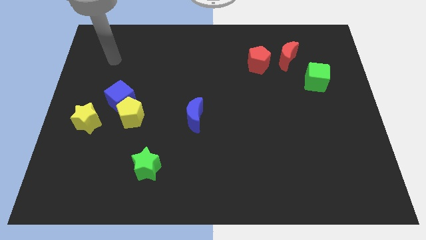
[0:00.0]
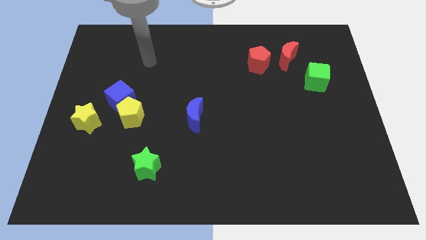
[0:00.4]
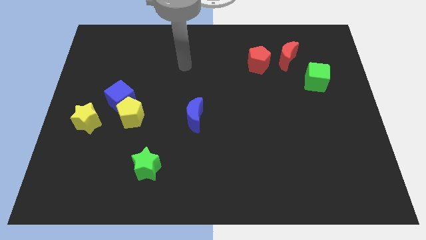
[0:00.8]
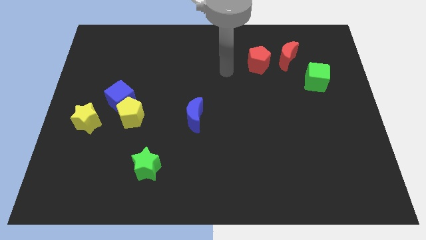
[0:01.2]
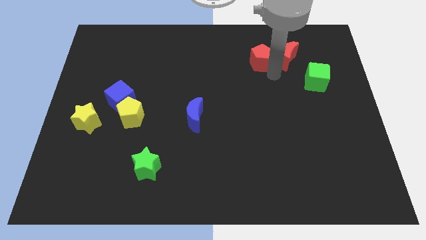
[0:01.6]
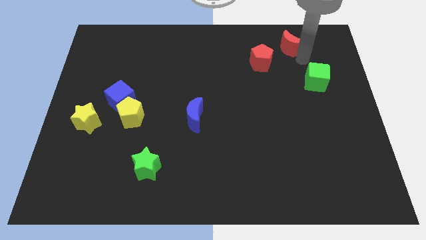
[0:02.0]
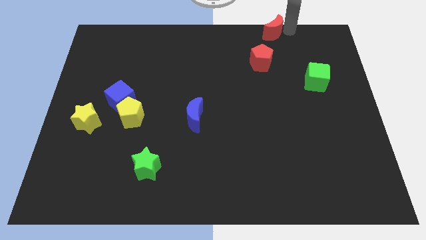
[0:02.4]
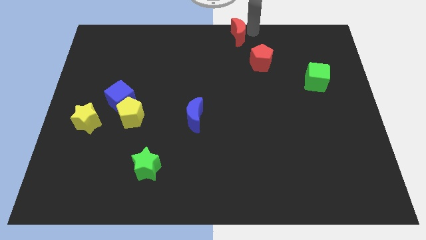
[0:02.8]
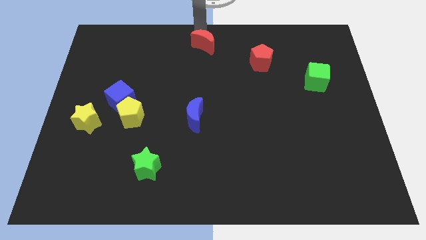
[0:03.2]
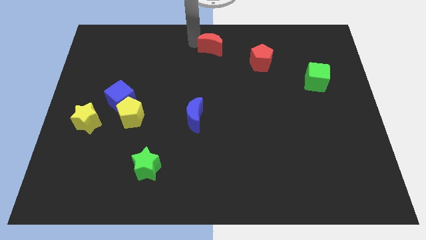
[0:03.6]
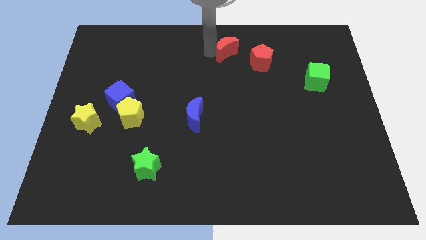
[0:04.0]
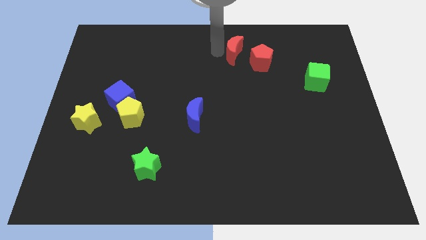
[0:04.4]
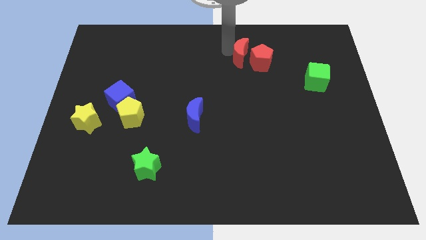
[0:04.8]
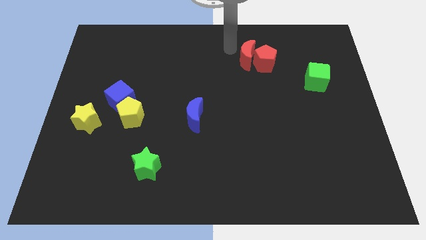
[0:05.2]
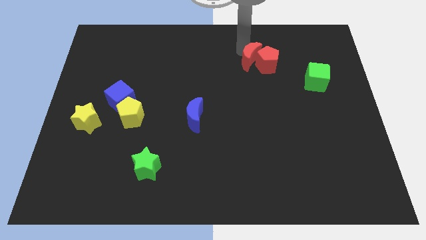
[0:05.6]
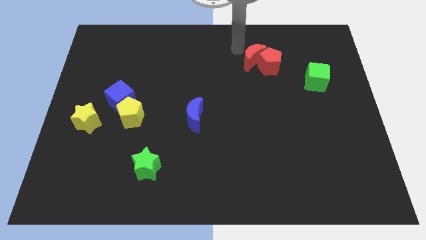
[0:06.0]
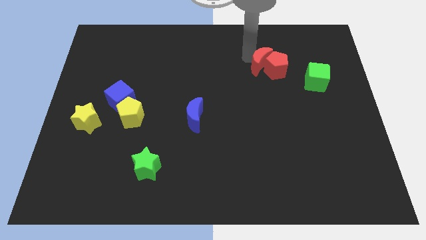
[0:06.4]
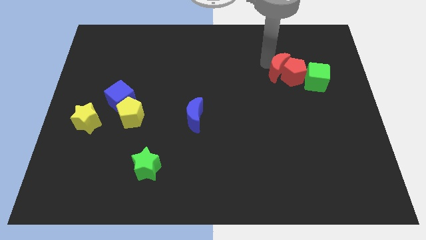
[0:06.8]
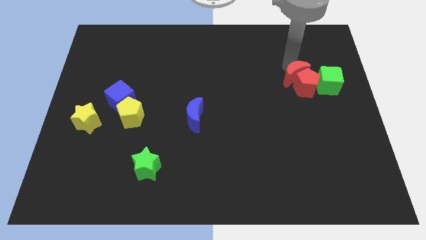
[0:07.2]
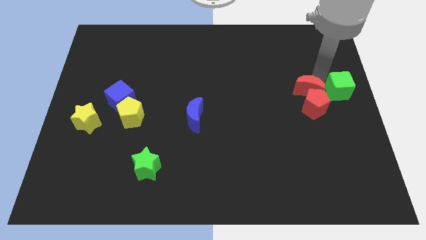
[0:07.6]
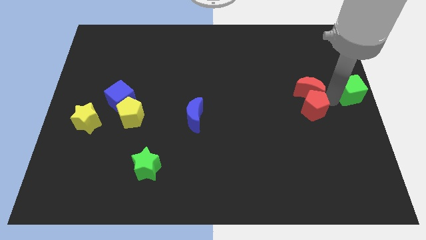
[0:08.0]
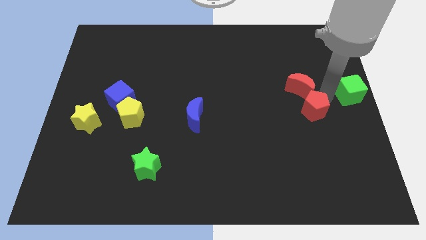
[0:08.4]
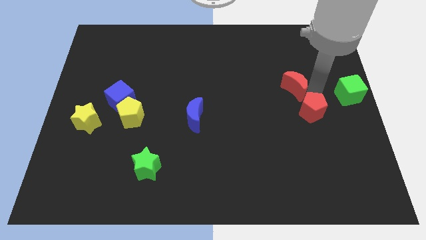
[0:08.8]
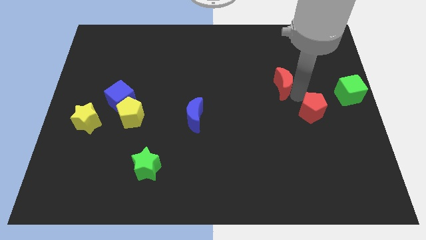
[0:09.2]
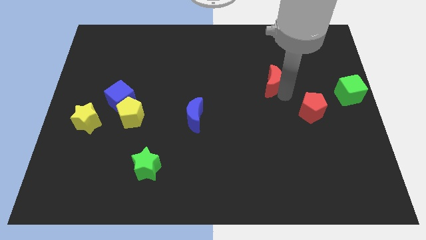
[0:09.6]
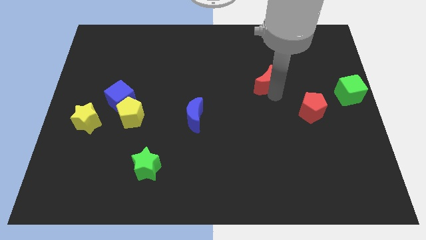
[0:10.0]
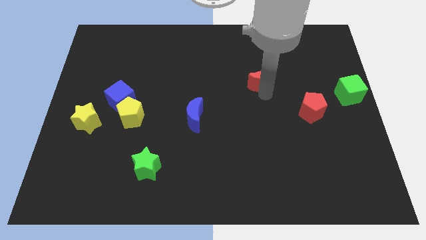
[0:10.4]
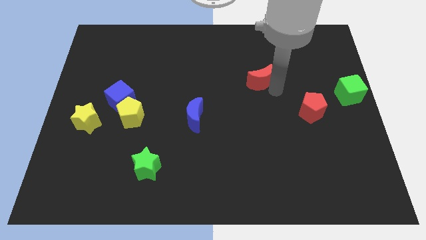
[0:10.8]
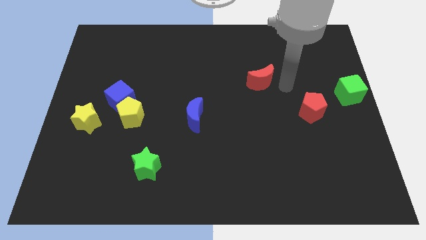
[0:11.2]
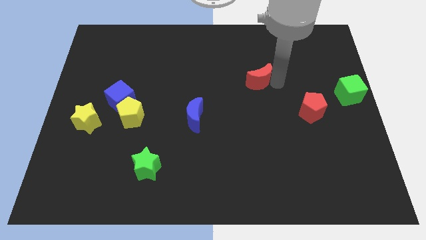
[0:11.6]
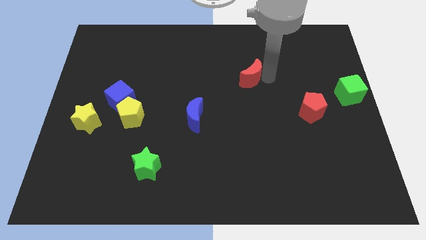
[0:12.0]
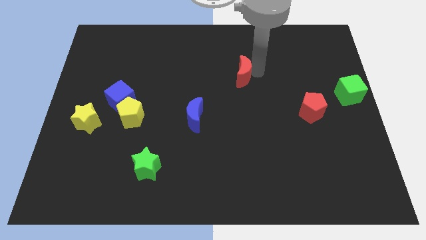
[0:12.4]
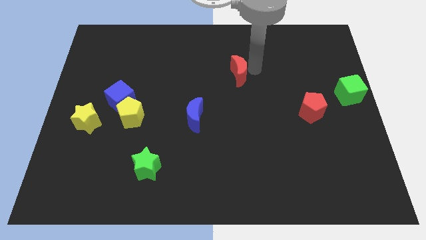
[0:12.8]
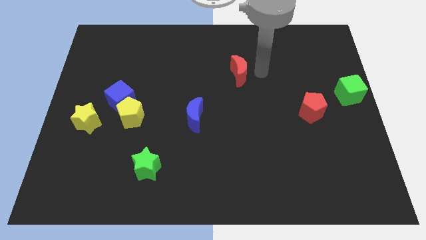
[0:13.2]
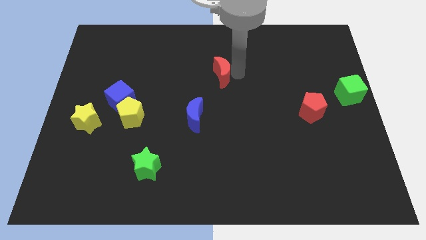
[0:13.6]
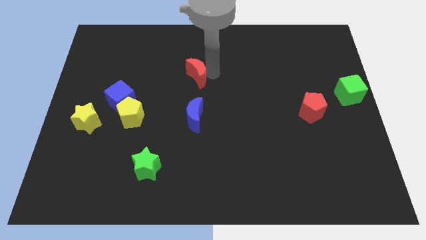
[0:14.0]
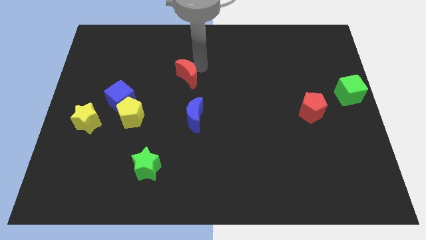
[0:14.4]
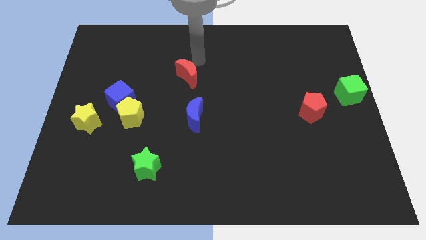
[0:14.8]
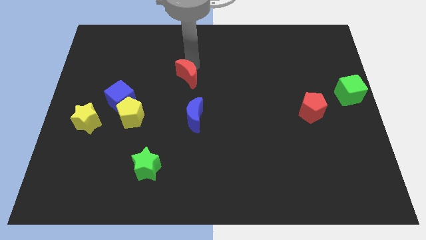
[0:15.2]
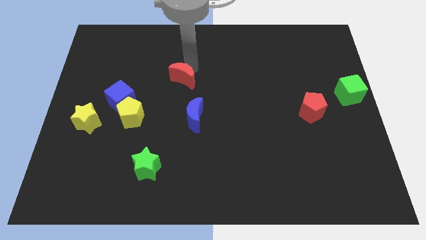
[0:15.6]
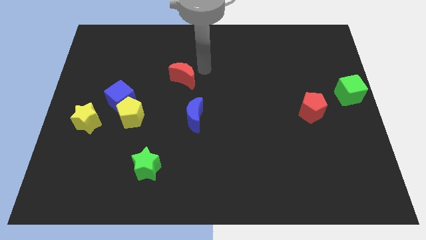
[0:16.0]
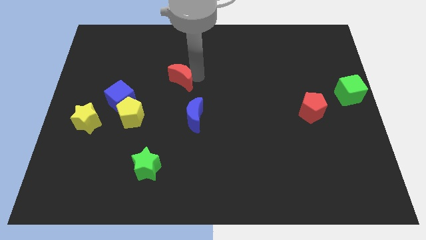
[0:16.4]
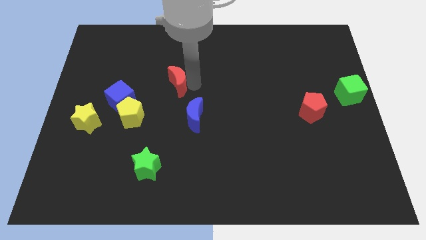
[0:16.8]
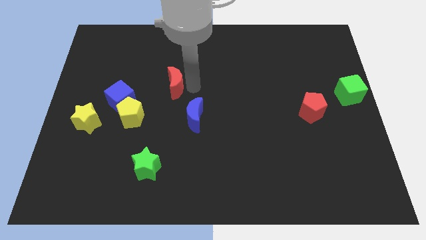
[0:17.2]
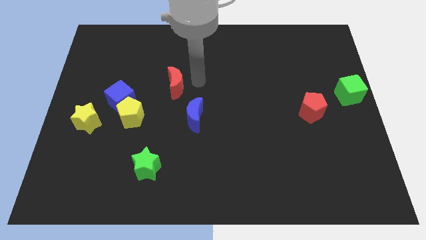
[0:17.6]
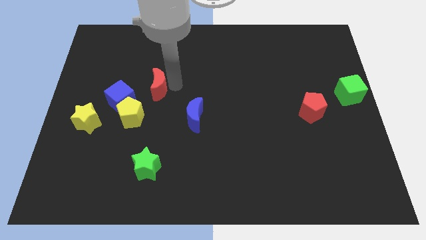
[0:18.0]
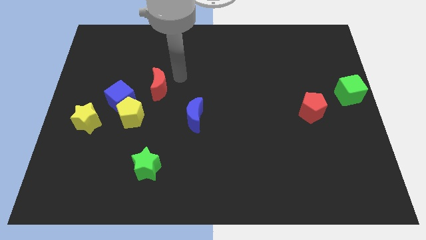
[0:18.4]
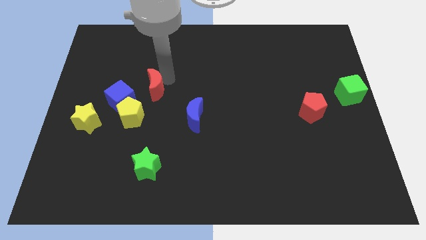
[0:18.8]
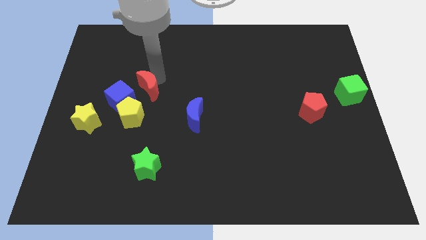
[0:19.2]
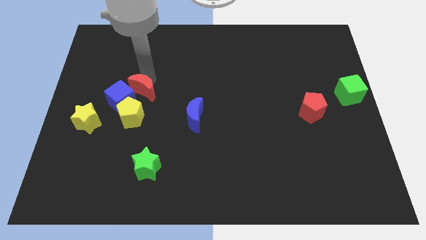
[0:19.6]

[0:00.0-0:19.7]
slide the red moon close to the blue cube

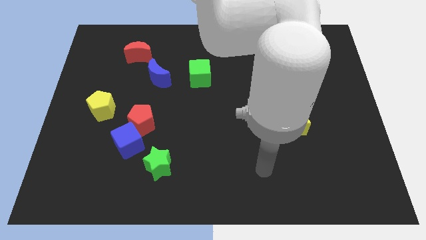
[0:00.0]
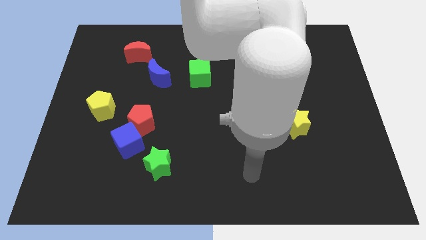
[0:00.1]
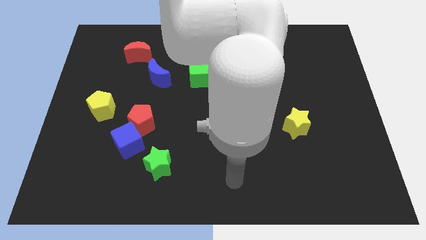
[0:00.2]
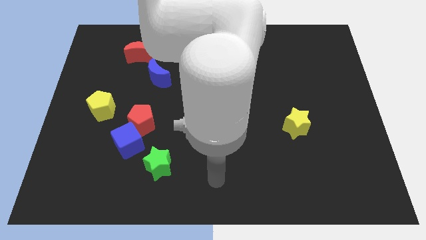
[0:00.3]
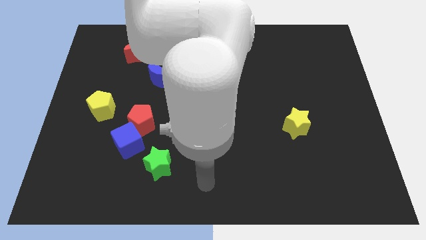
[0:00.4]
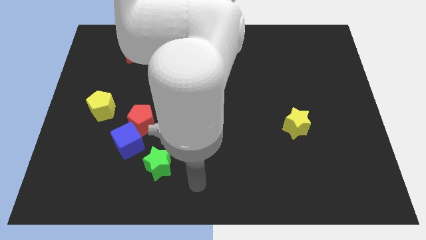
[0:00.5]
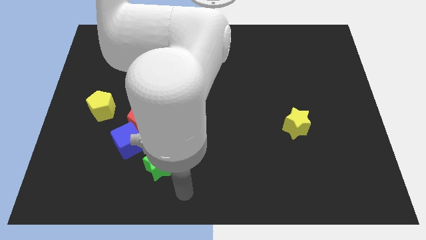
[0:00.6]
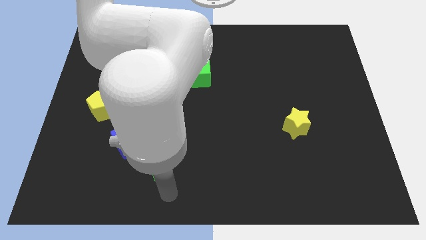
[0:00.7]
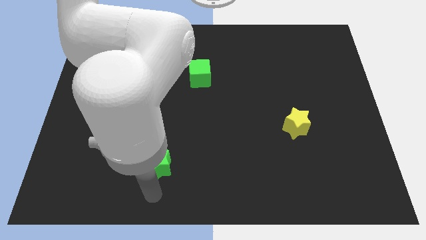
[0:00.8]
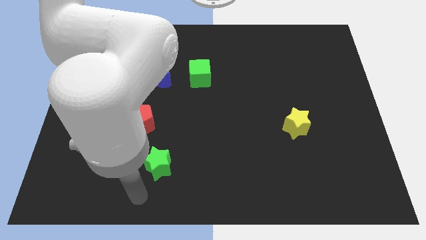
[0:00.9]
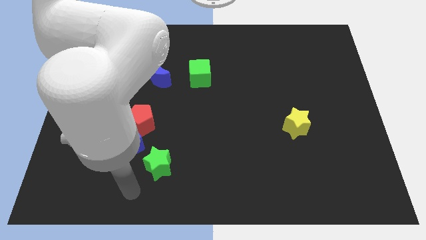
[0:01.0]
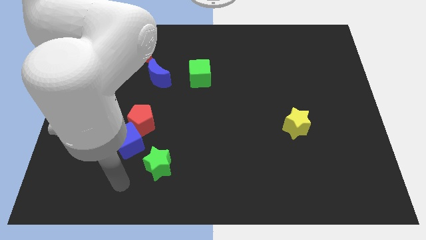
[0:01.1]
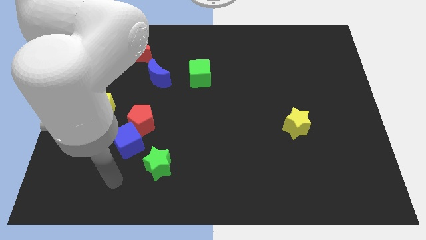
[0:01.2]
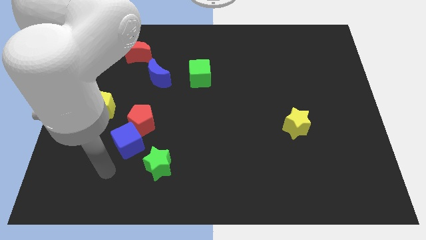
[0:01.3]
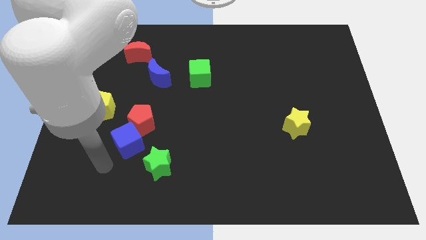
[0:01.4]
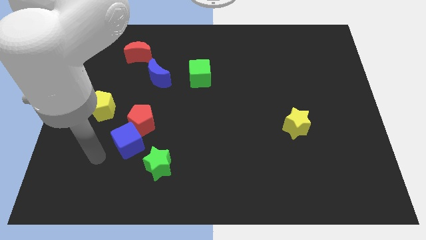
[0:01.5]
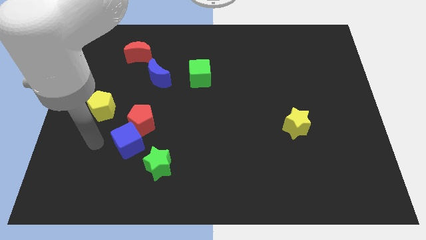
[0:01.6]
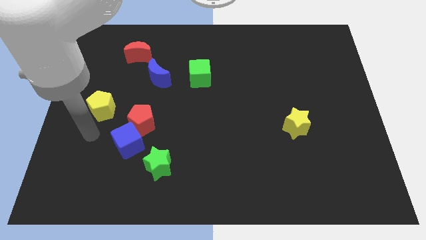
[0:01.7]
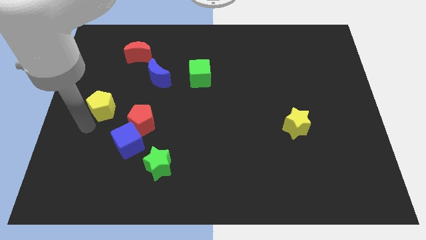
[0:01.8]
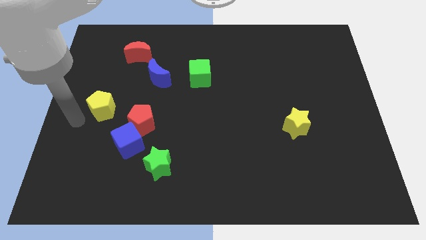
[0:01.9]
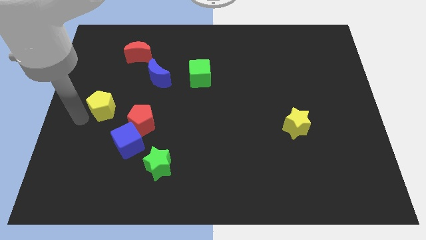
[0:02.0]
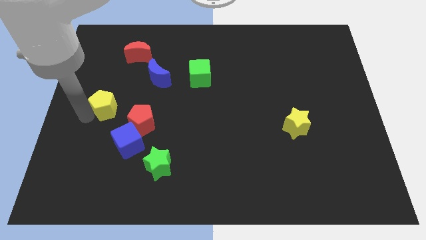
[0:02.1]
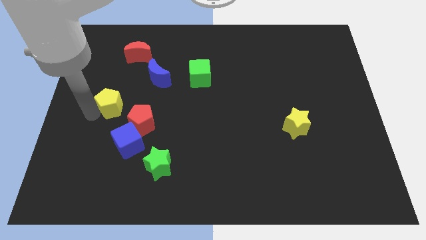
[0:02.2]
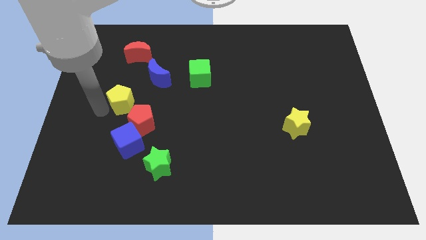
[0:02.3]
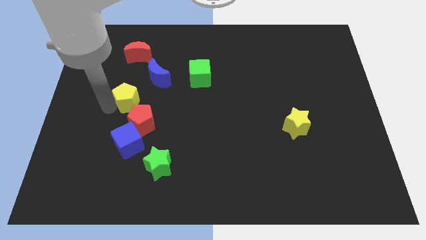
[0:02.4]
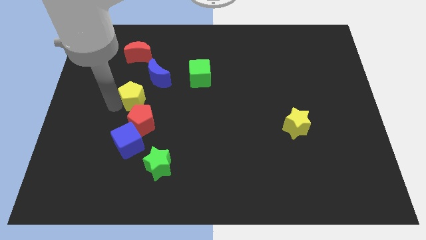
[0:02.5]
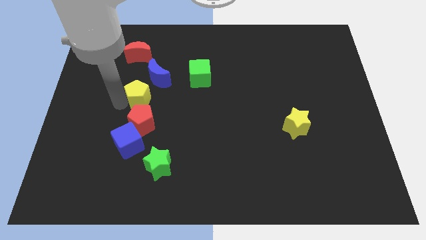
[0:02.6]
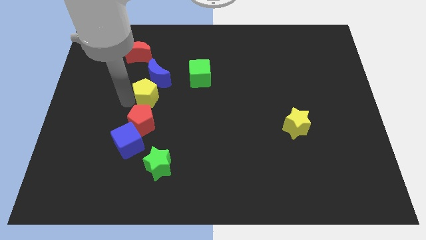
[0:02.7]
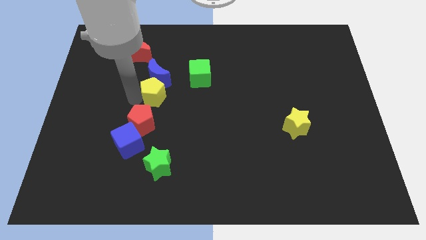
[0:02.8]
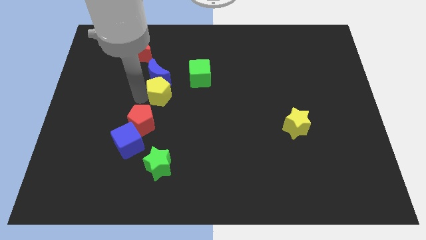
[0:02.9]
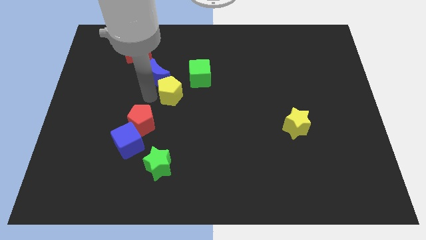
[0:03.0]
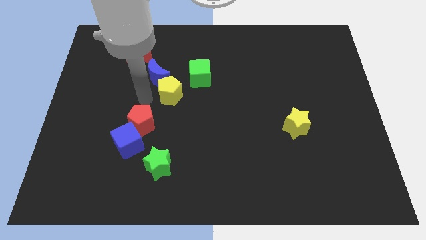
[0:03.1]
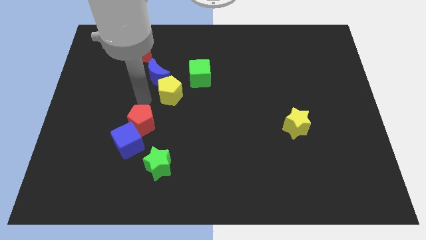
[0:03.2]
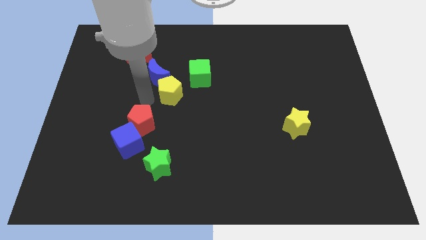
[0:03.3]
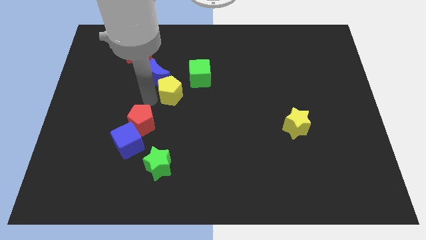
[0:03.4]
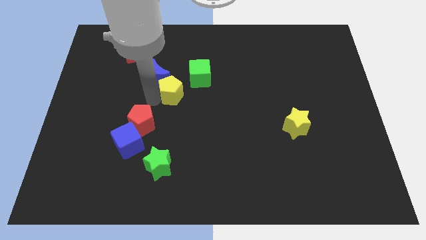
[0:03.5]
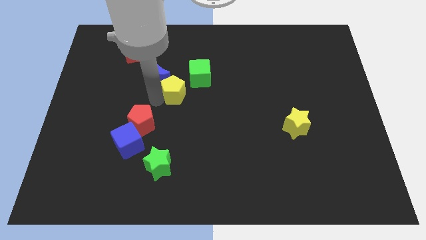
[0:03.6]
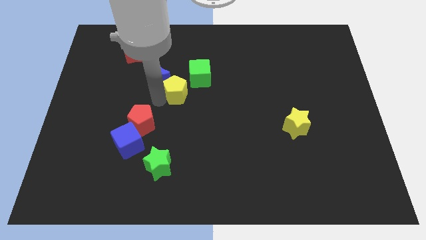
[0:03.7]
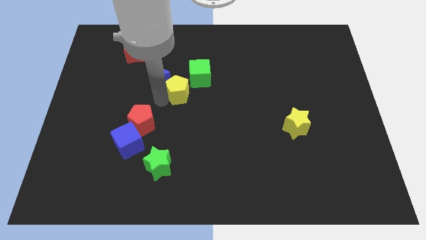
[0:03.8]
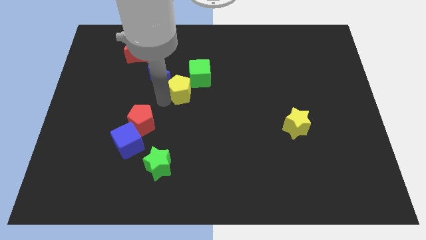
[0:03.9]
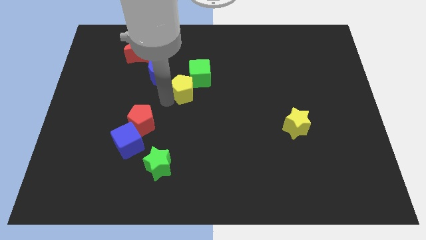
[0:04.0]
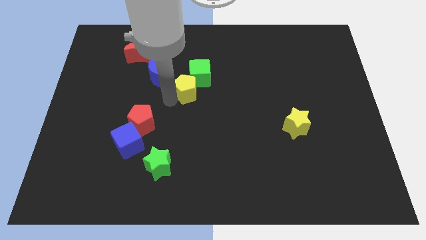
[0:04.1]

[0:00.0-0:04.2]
move the yellow pentagon towards the green cube
